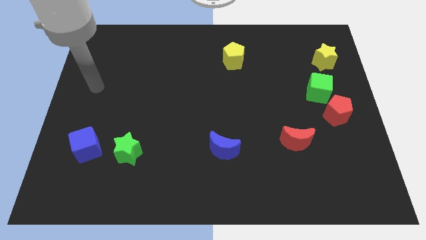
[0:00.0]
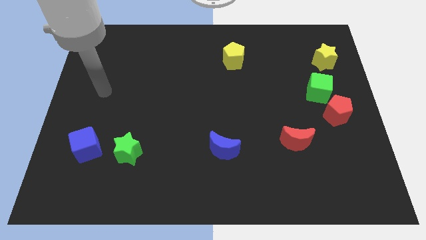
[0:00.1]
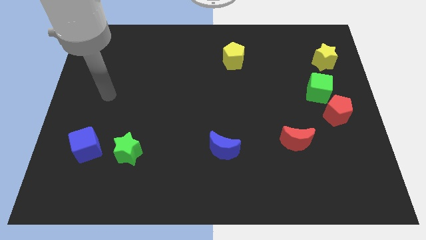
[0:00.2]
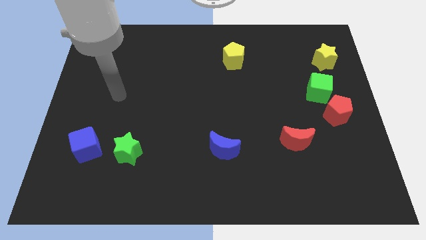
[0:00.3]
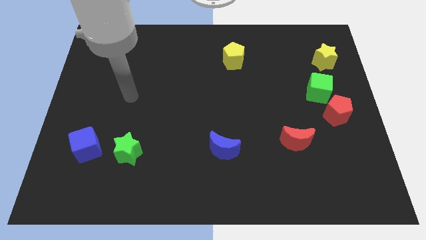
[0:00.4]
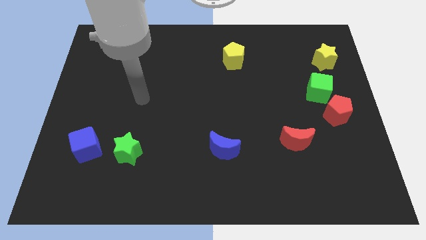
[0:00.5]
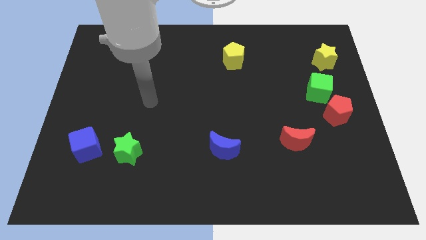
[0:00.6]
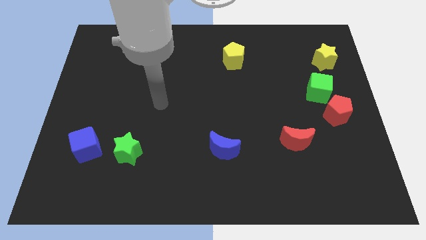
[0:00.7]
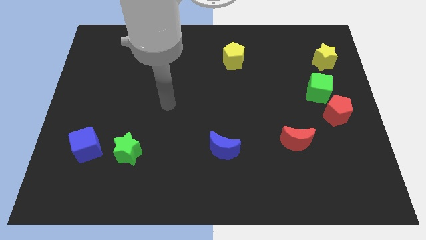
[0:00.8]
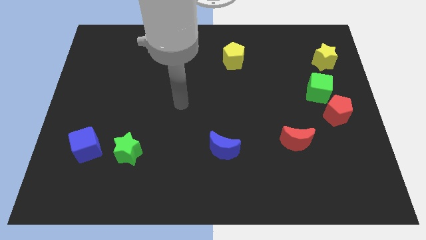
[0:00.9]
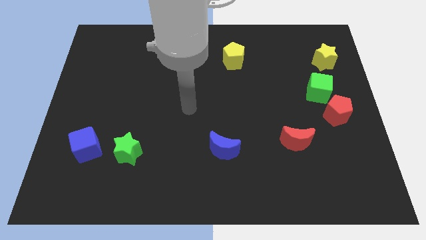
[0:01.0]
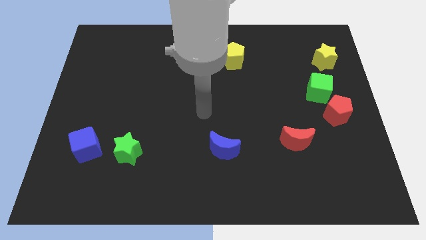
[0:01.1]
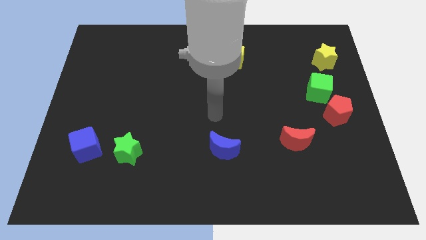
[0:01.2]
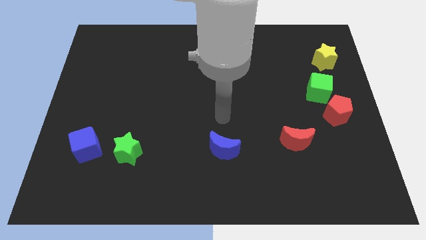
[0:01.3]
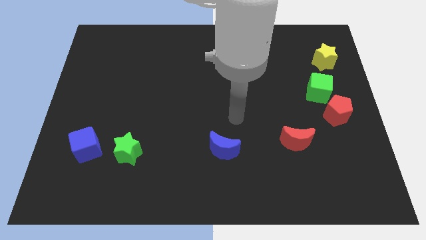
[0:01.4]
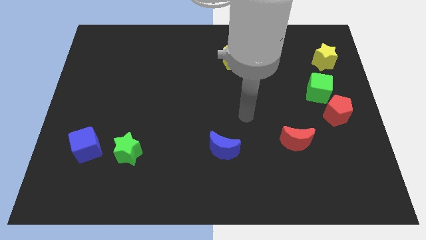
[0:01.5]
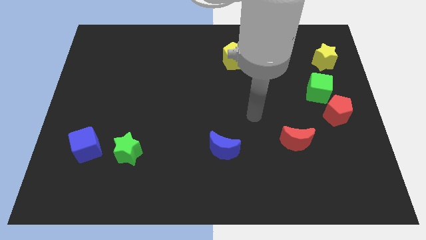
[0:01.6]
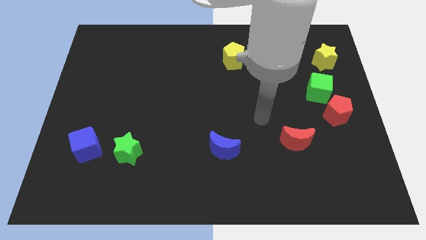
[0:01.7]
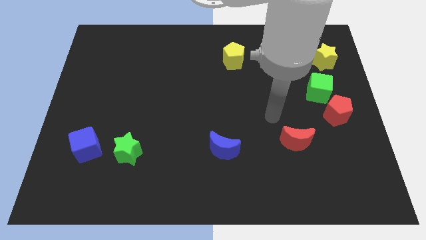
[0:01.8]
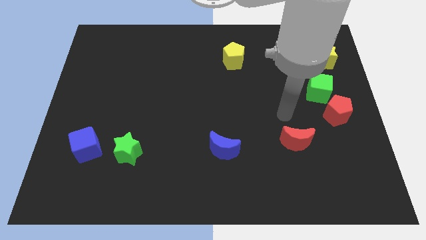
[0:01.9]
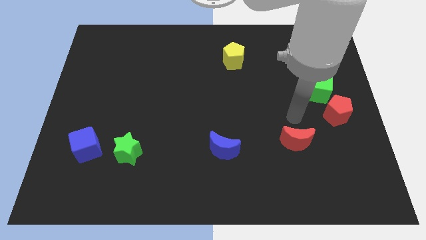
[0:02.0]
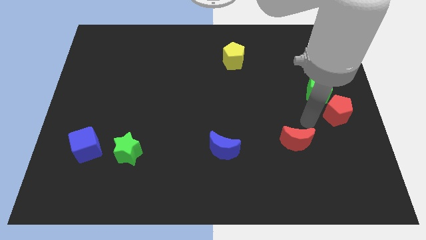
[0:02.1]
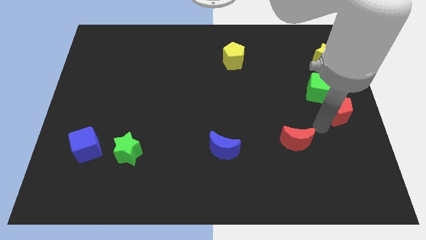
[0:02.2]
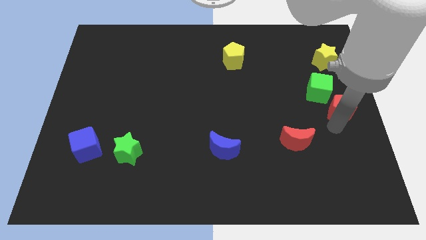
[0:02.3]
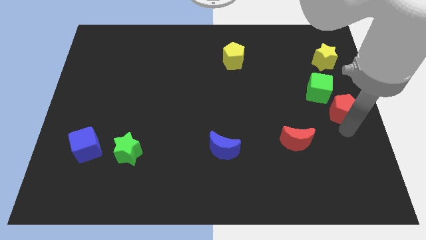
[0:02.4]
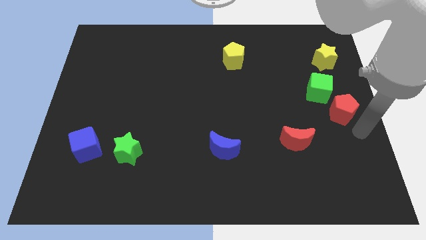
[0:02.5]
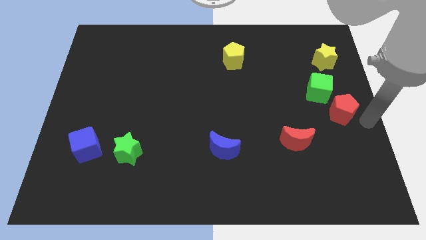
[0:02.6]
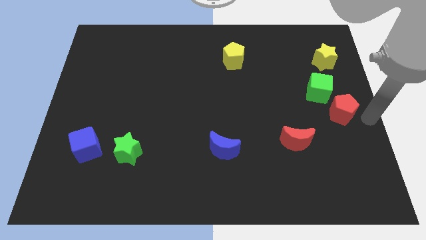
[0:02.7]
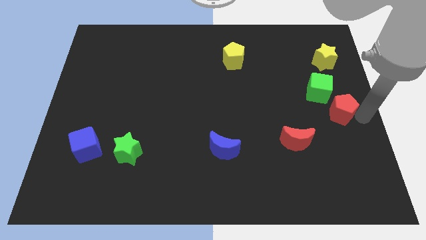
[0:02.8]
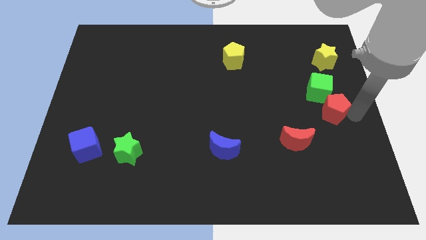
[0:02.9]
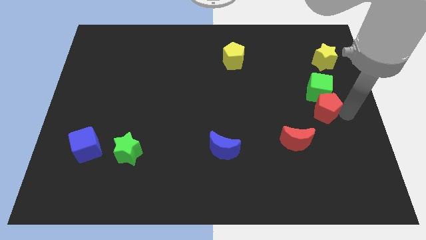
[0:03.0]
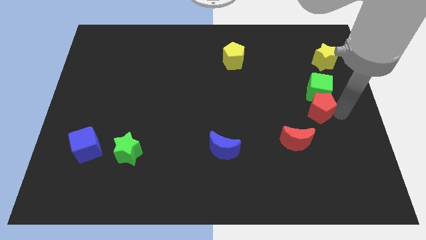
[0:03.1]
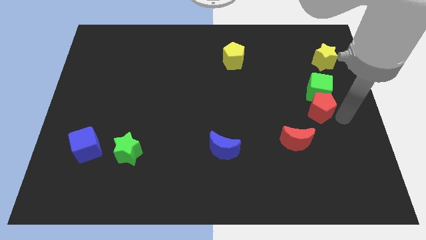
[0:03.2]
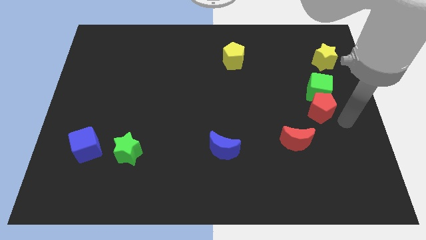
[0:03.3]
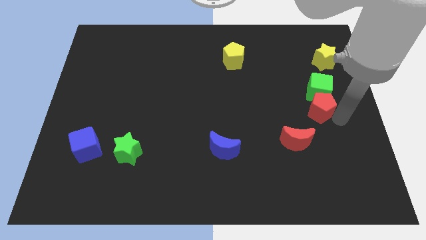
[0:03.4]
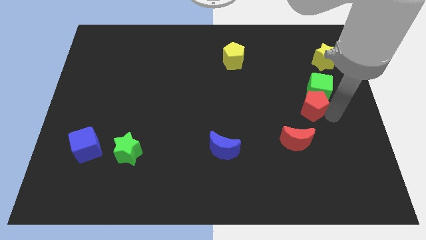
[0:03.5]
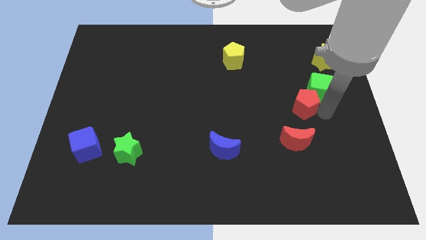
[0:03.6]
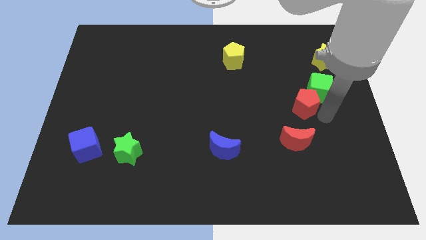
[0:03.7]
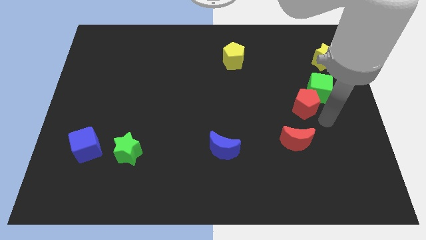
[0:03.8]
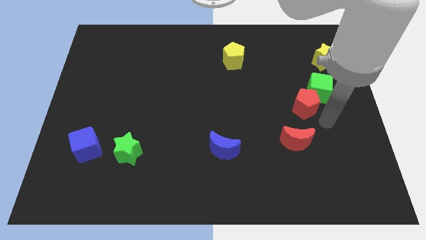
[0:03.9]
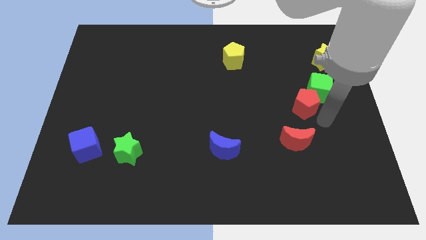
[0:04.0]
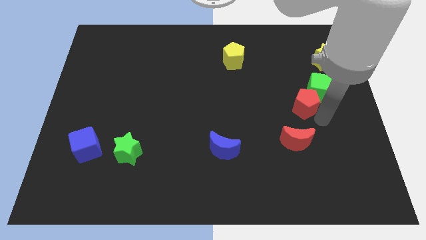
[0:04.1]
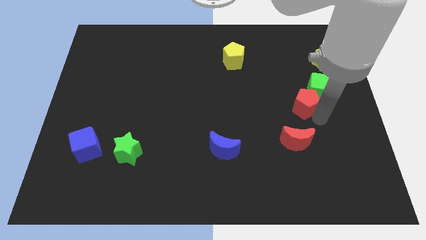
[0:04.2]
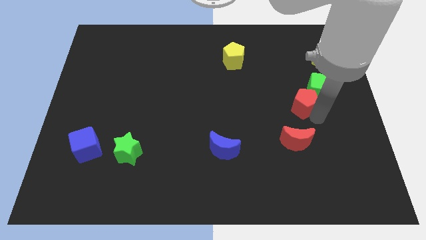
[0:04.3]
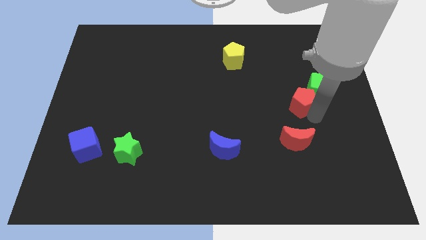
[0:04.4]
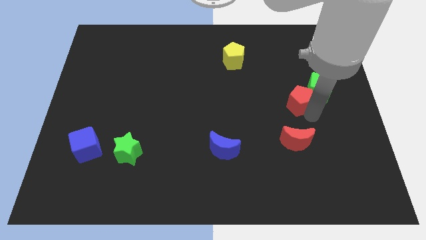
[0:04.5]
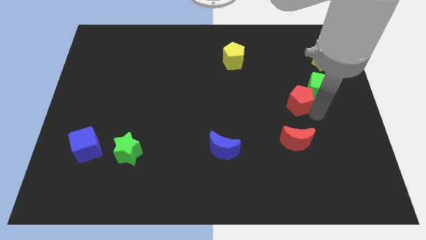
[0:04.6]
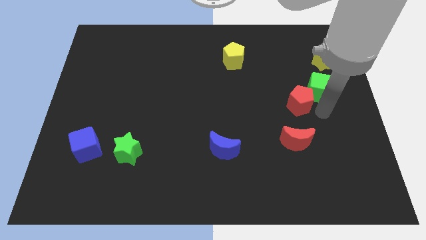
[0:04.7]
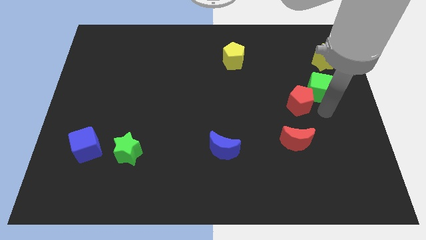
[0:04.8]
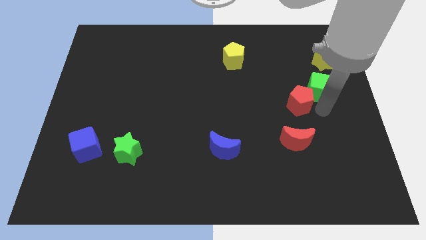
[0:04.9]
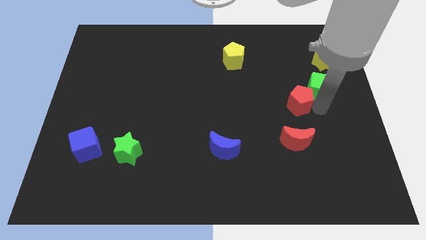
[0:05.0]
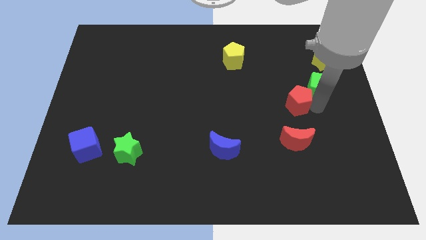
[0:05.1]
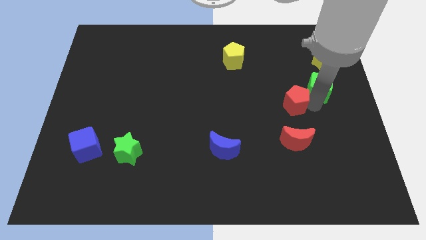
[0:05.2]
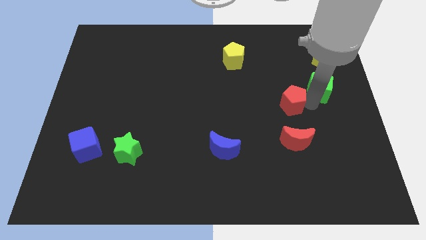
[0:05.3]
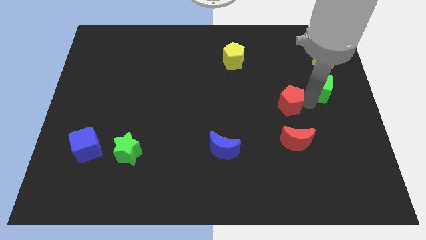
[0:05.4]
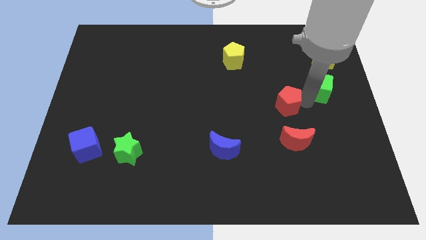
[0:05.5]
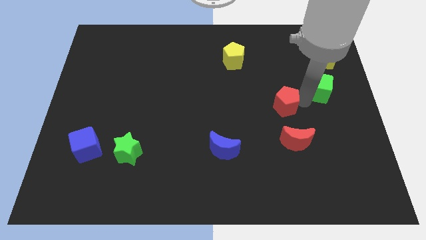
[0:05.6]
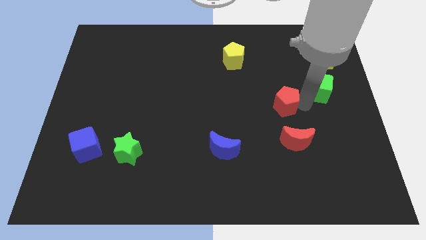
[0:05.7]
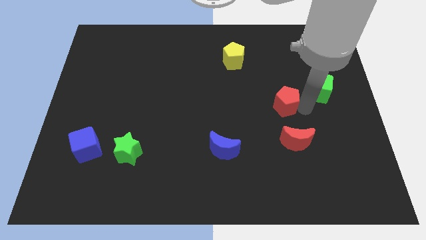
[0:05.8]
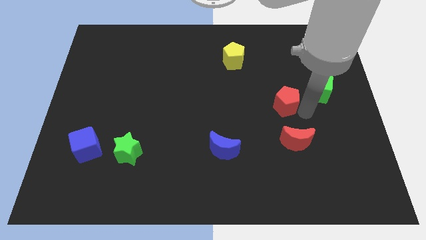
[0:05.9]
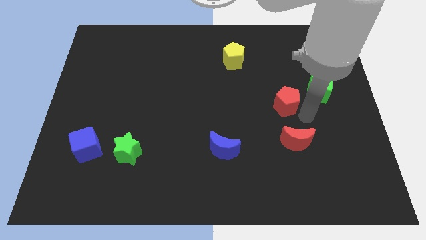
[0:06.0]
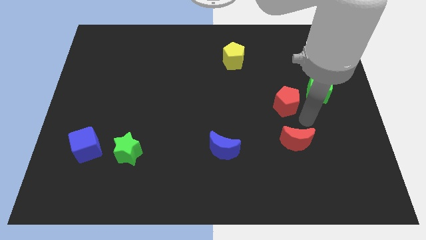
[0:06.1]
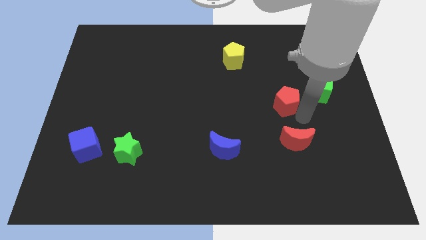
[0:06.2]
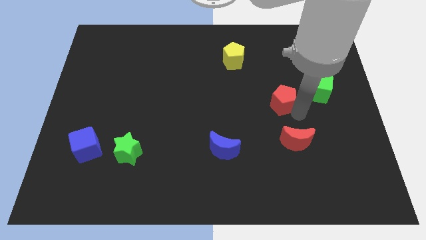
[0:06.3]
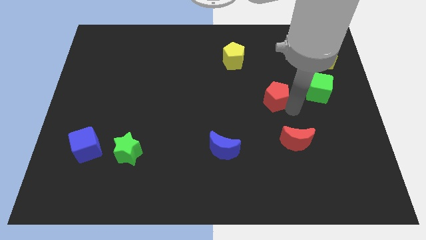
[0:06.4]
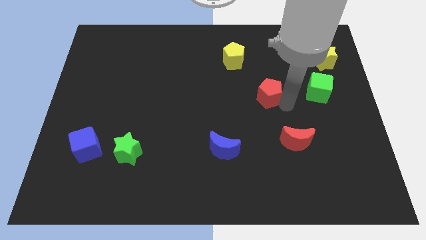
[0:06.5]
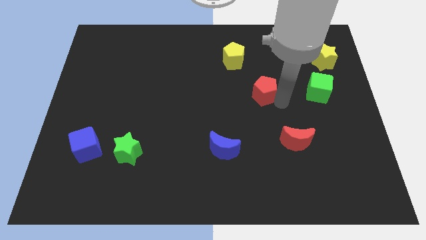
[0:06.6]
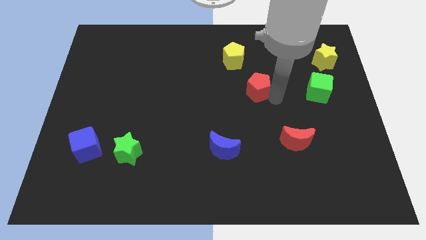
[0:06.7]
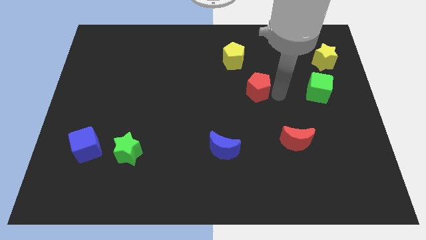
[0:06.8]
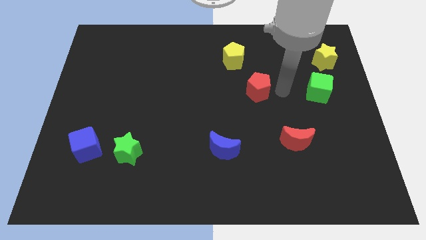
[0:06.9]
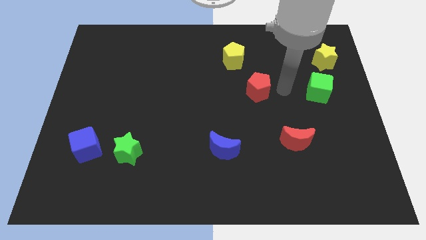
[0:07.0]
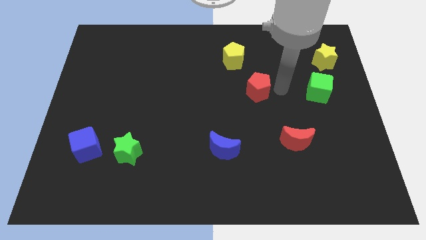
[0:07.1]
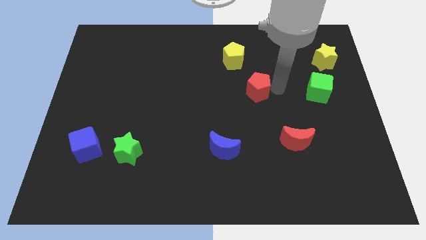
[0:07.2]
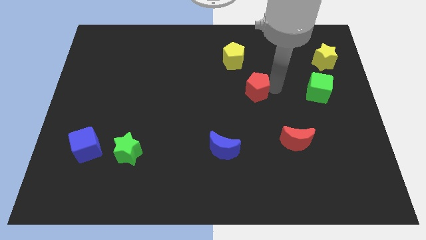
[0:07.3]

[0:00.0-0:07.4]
slide the red pentagon below the yellow pentagon
